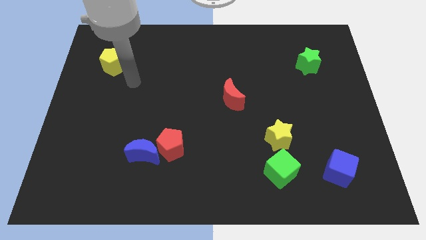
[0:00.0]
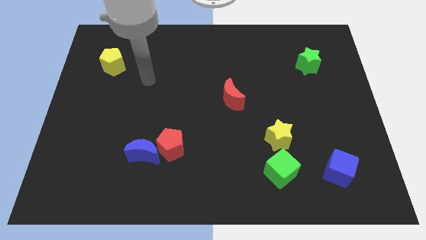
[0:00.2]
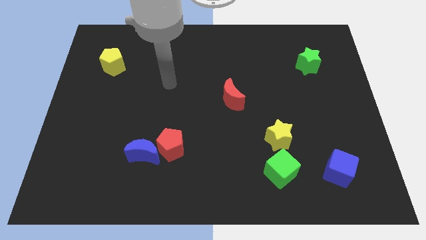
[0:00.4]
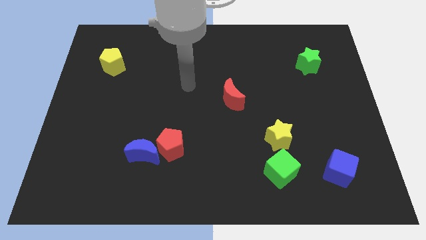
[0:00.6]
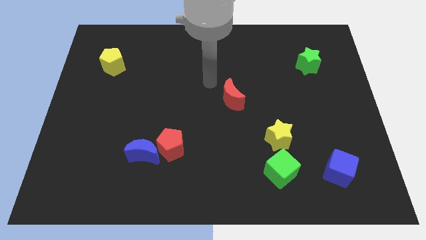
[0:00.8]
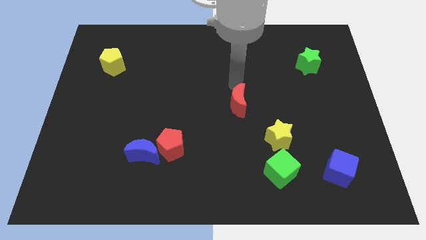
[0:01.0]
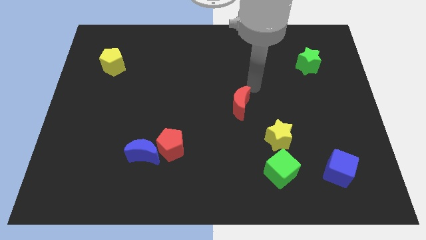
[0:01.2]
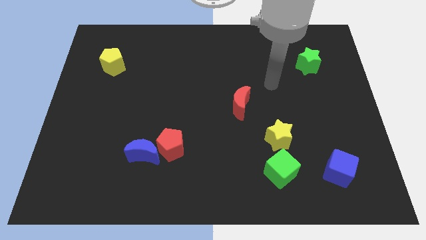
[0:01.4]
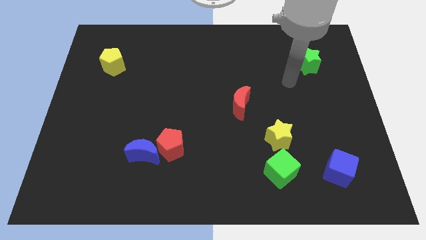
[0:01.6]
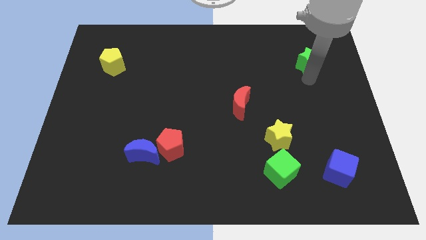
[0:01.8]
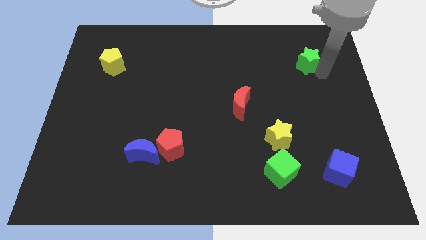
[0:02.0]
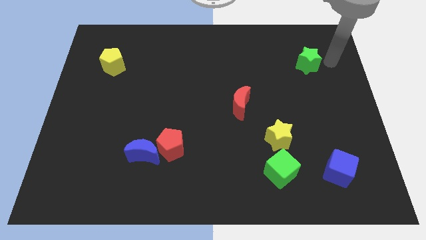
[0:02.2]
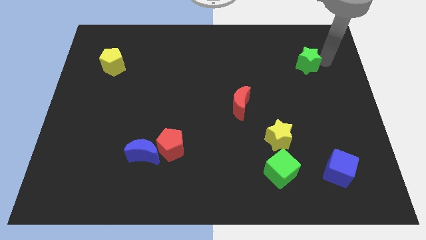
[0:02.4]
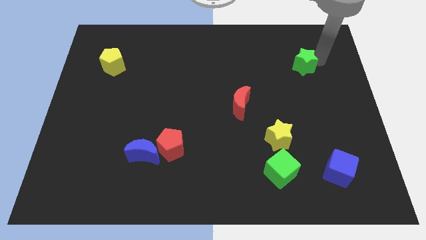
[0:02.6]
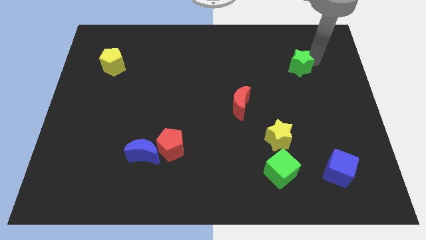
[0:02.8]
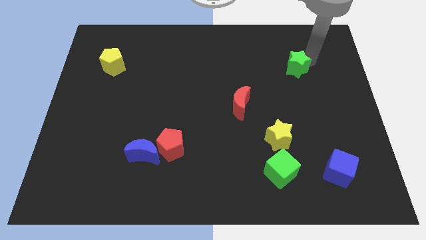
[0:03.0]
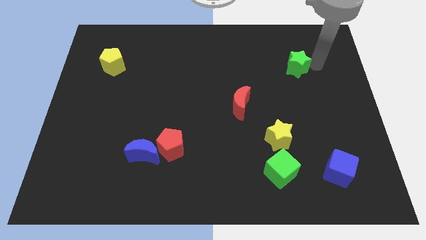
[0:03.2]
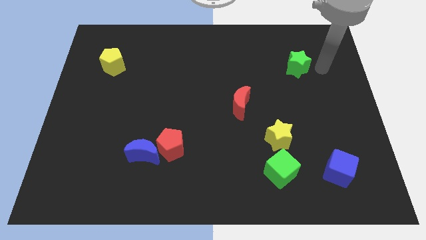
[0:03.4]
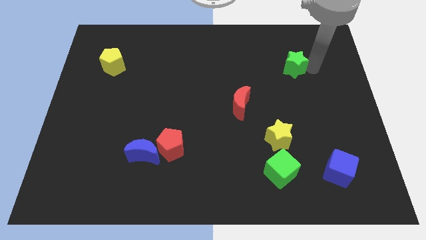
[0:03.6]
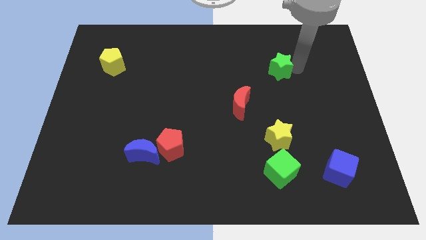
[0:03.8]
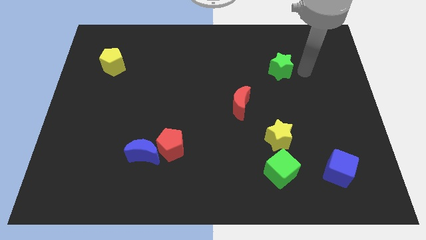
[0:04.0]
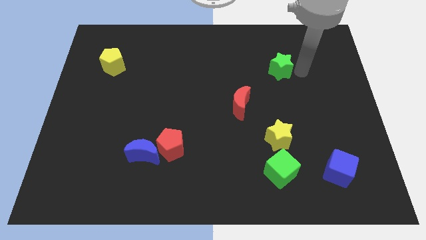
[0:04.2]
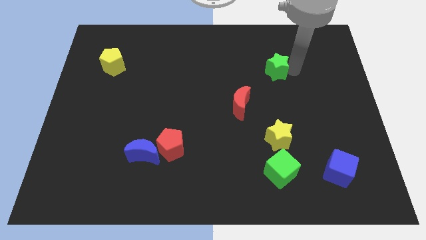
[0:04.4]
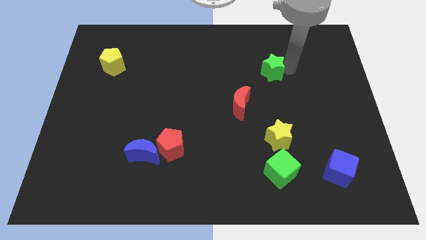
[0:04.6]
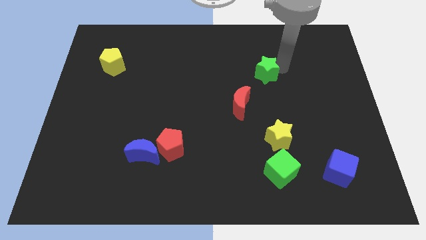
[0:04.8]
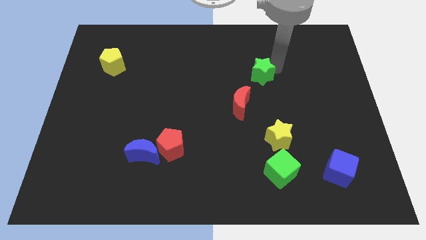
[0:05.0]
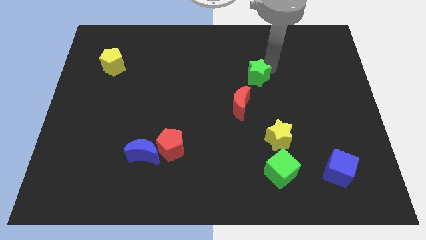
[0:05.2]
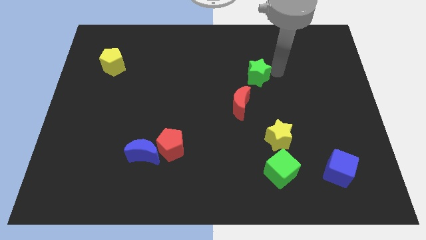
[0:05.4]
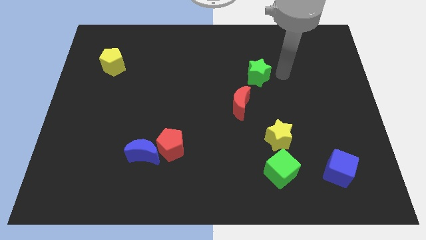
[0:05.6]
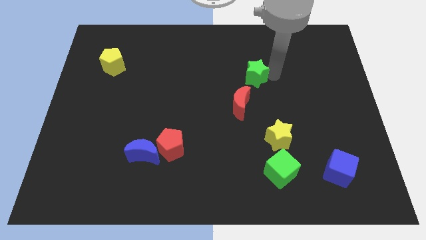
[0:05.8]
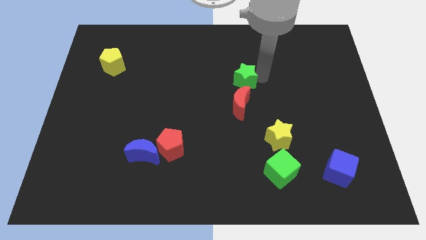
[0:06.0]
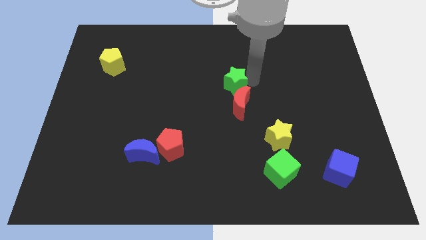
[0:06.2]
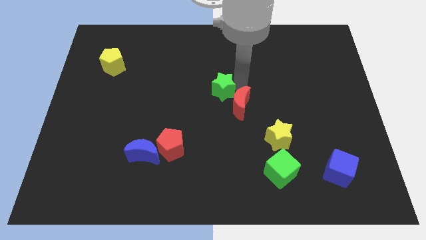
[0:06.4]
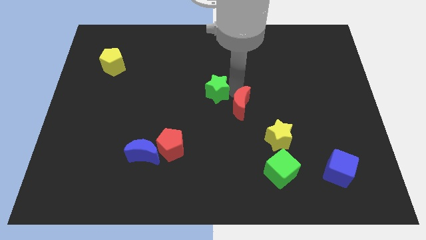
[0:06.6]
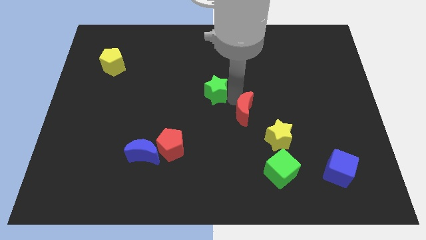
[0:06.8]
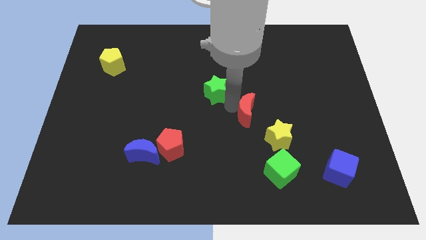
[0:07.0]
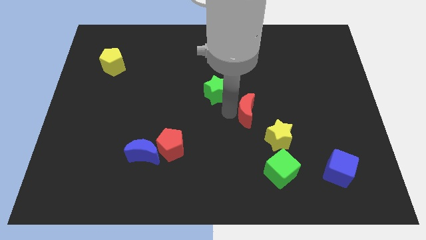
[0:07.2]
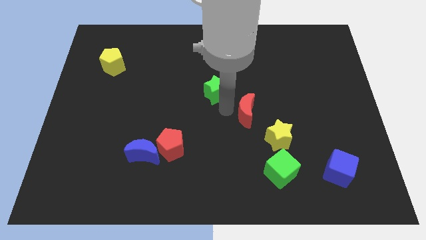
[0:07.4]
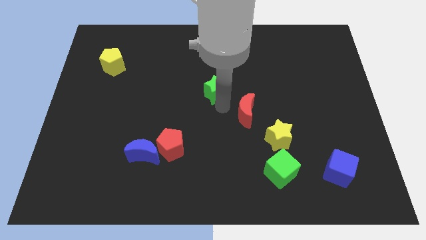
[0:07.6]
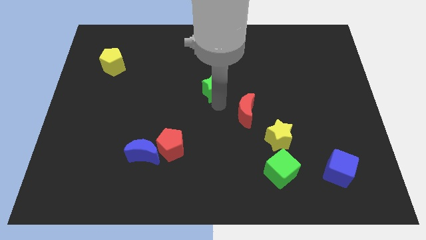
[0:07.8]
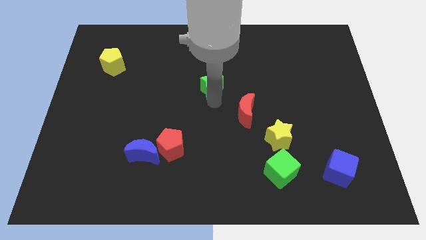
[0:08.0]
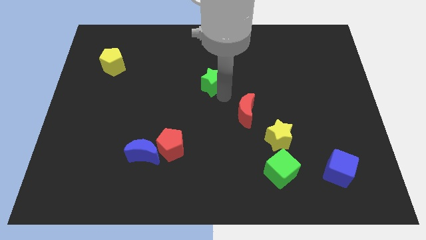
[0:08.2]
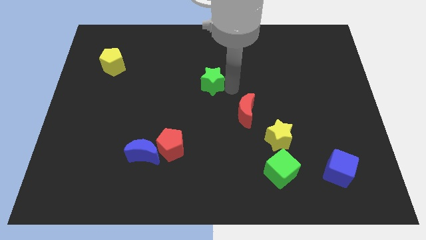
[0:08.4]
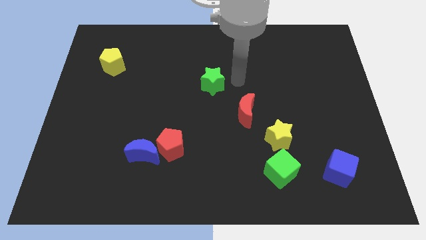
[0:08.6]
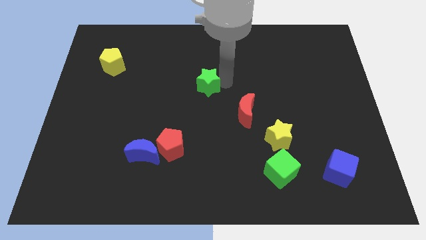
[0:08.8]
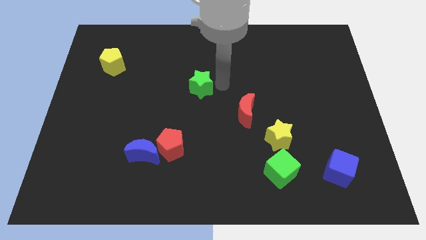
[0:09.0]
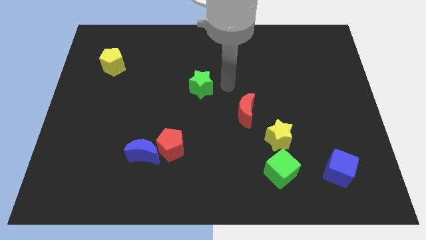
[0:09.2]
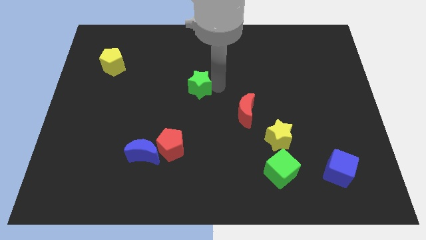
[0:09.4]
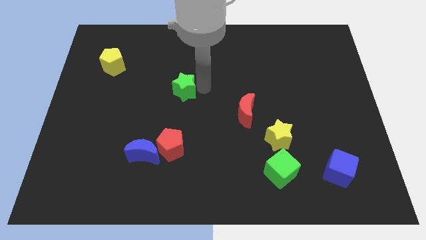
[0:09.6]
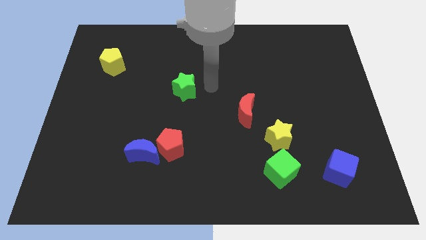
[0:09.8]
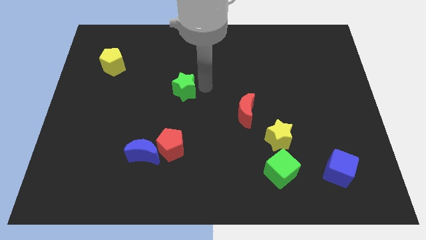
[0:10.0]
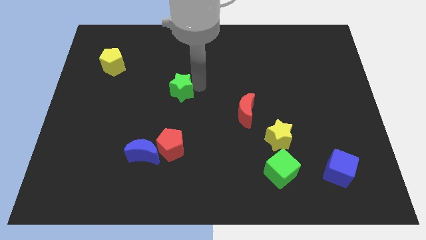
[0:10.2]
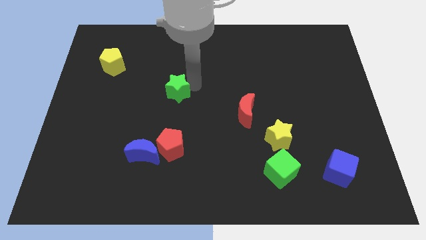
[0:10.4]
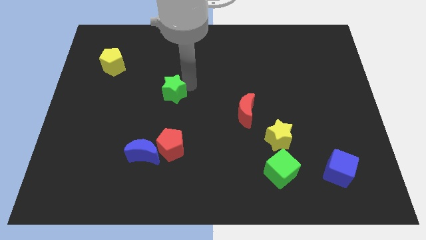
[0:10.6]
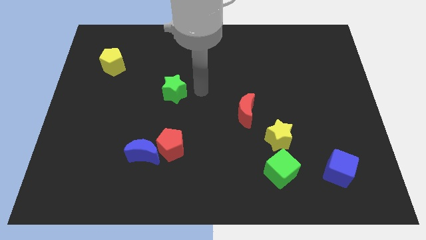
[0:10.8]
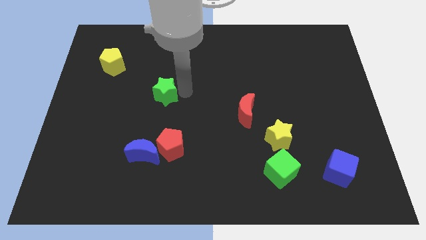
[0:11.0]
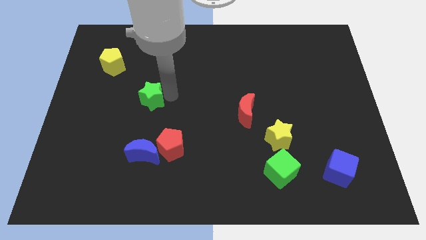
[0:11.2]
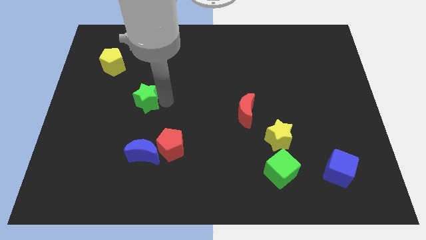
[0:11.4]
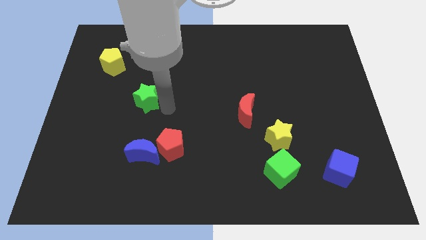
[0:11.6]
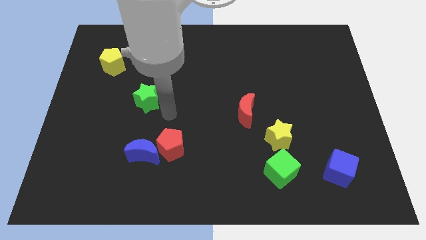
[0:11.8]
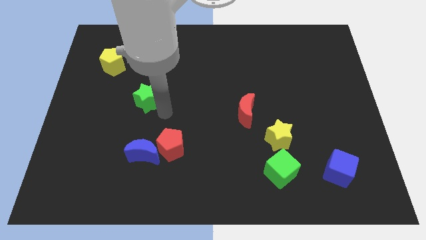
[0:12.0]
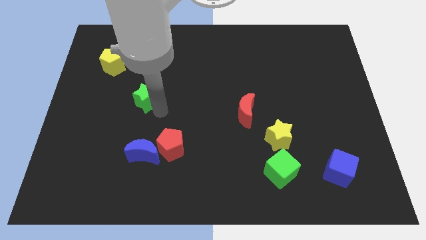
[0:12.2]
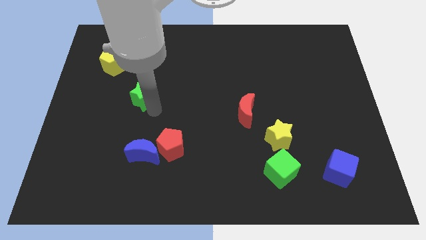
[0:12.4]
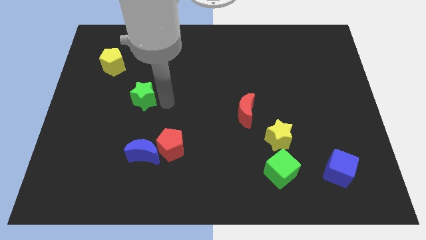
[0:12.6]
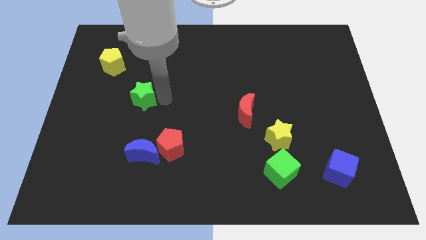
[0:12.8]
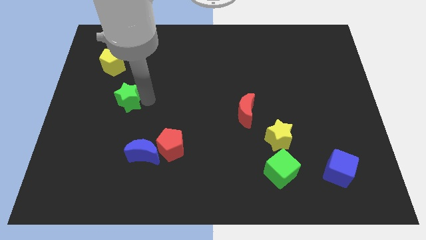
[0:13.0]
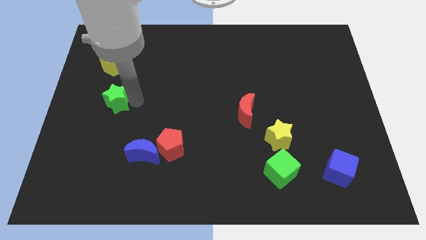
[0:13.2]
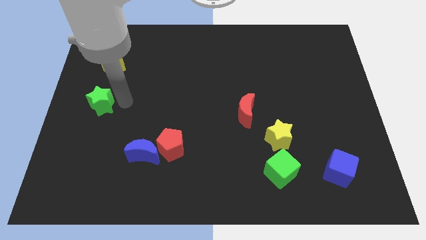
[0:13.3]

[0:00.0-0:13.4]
put the green star to the center left
